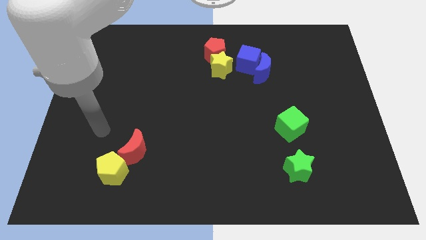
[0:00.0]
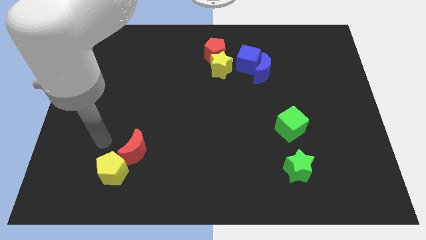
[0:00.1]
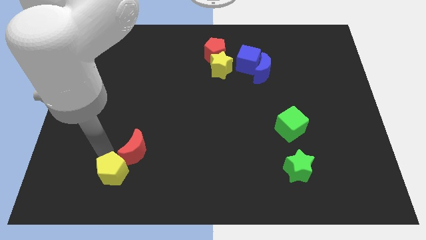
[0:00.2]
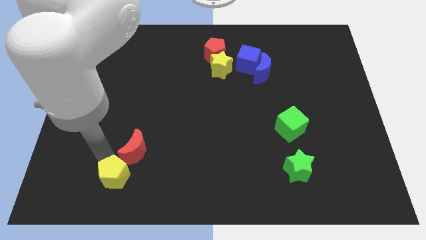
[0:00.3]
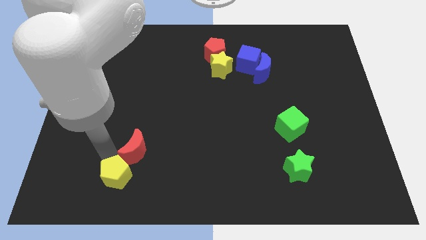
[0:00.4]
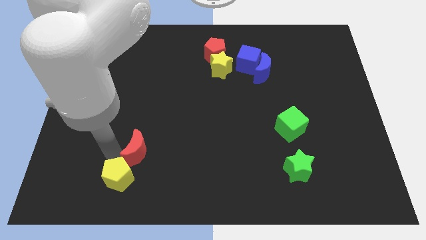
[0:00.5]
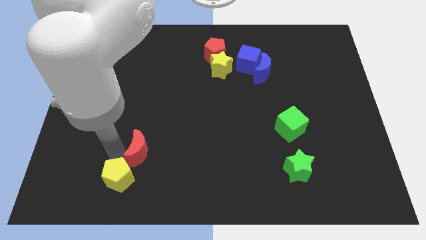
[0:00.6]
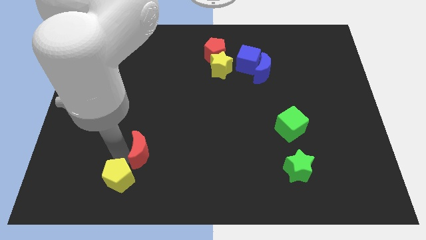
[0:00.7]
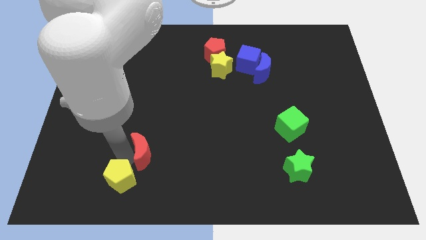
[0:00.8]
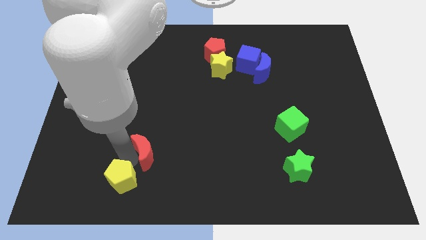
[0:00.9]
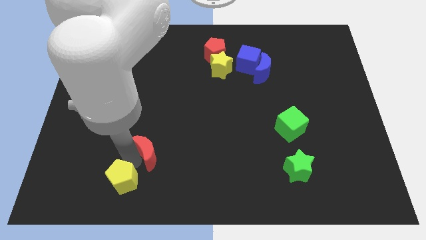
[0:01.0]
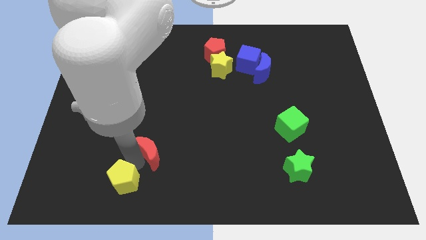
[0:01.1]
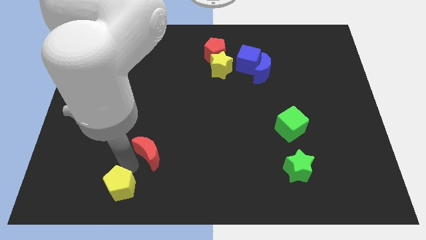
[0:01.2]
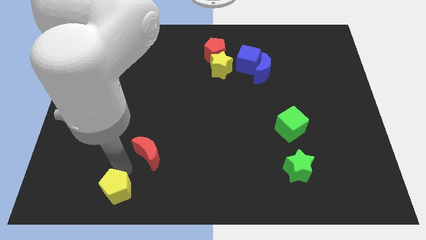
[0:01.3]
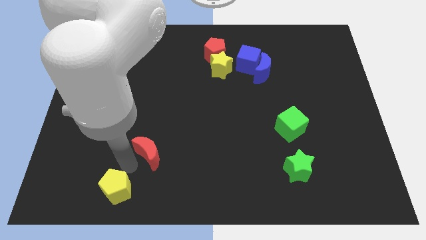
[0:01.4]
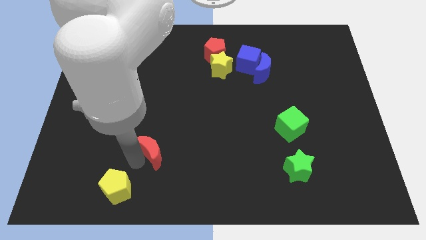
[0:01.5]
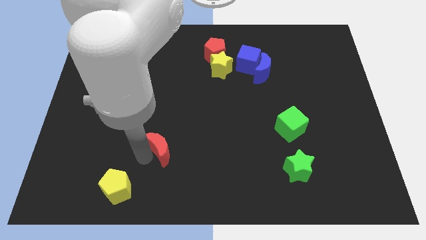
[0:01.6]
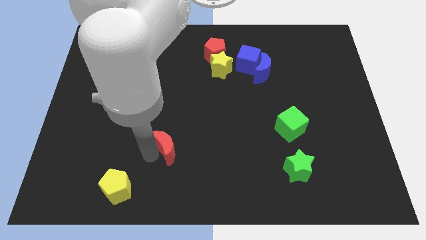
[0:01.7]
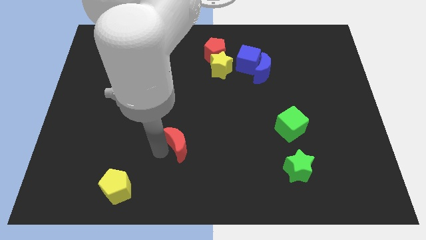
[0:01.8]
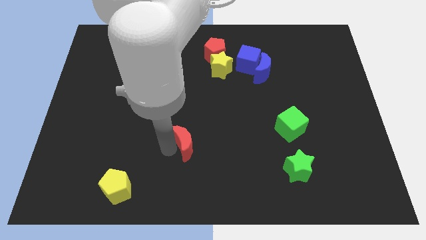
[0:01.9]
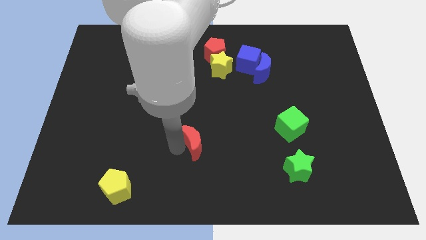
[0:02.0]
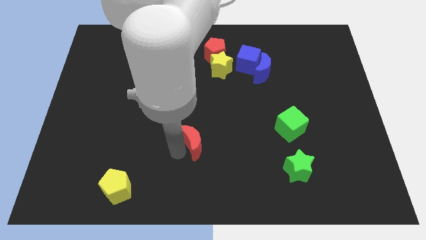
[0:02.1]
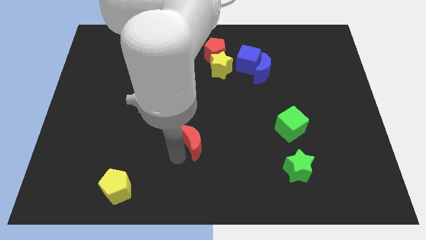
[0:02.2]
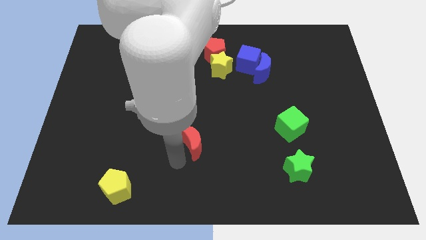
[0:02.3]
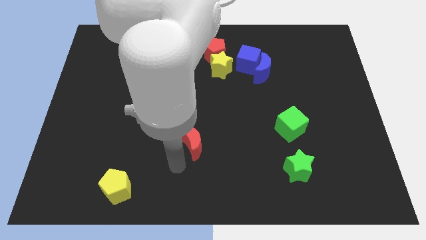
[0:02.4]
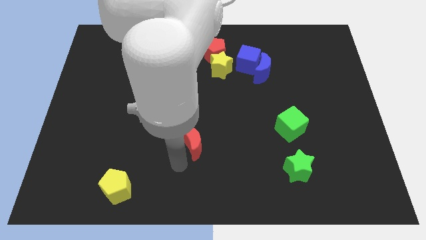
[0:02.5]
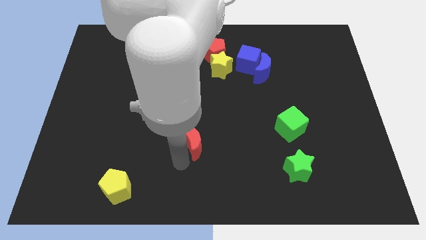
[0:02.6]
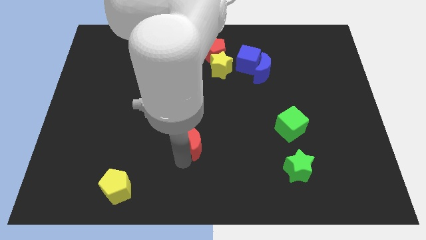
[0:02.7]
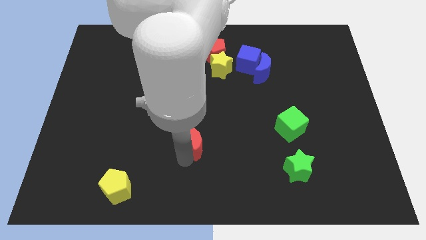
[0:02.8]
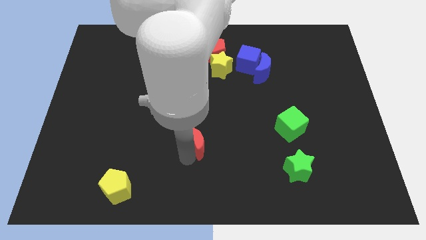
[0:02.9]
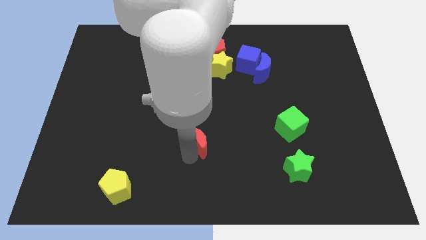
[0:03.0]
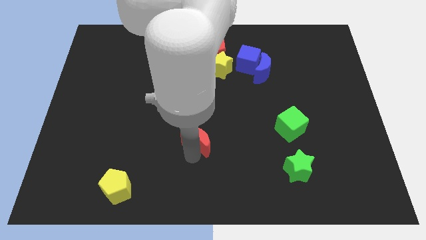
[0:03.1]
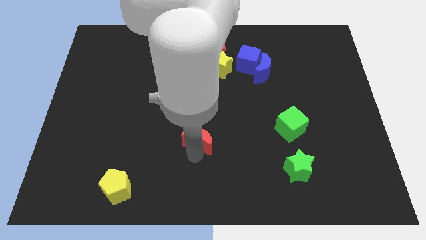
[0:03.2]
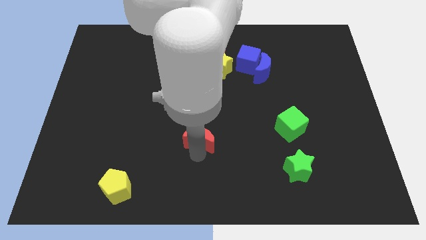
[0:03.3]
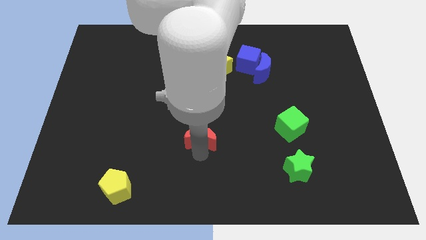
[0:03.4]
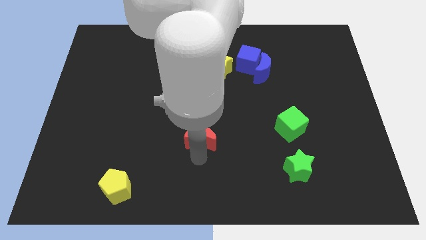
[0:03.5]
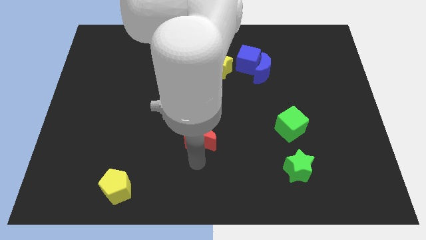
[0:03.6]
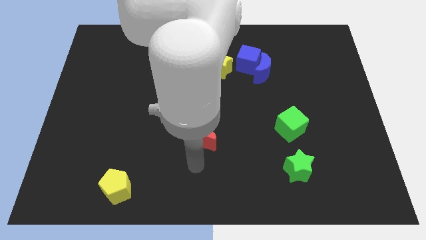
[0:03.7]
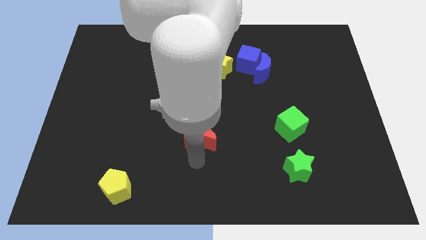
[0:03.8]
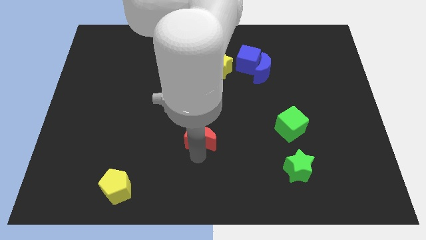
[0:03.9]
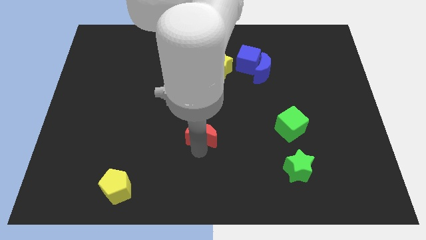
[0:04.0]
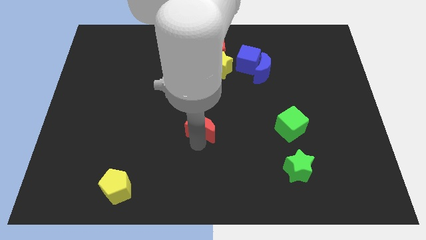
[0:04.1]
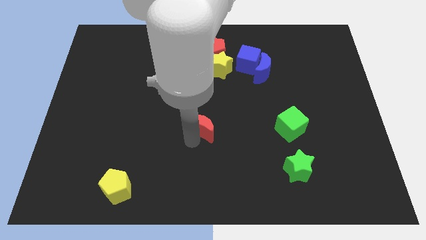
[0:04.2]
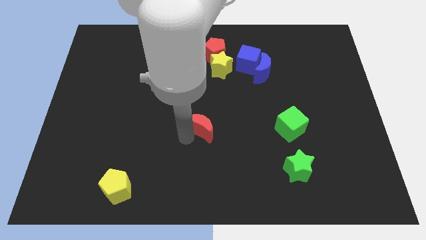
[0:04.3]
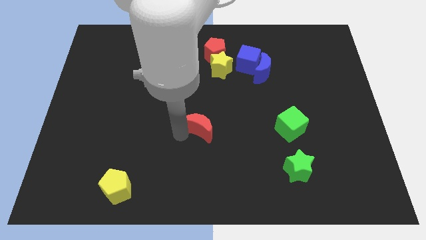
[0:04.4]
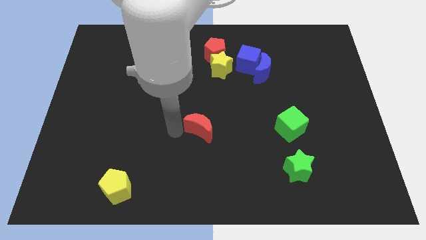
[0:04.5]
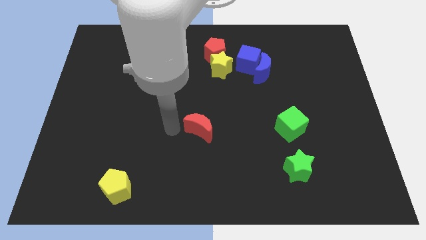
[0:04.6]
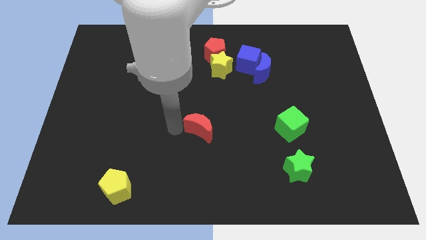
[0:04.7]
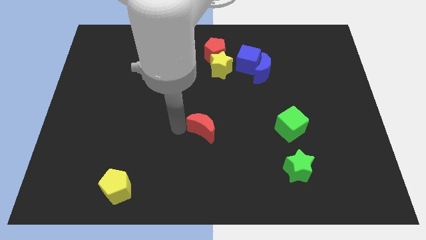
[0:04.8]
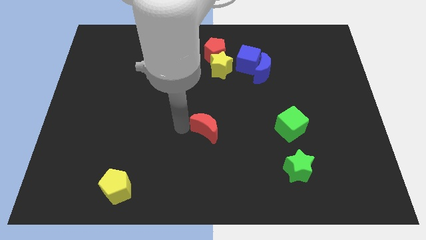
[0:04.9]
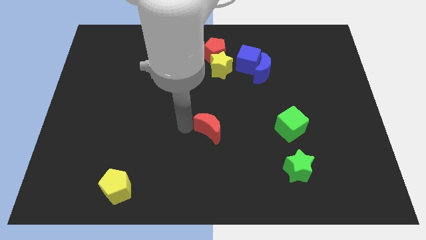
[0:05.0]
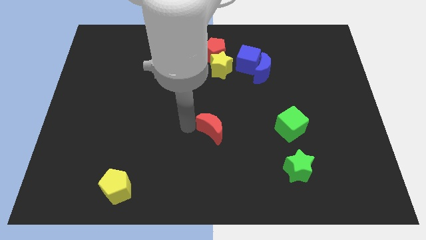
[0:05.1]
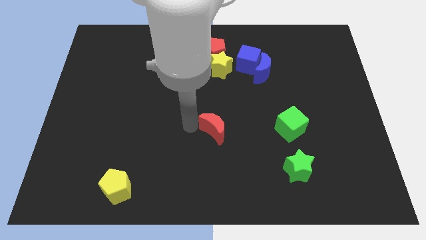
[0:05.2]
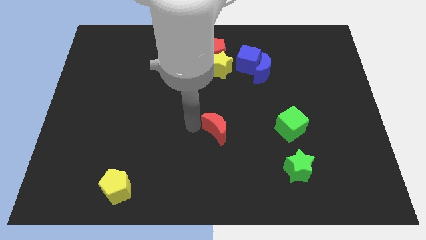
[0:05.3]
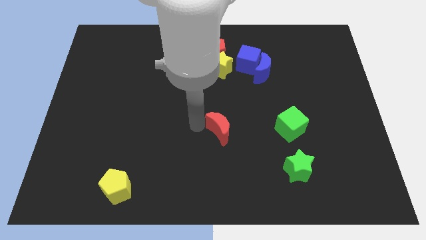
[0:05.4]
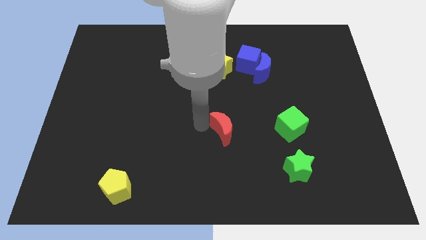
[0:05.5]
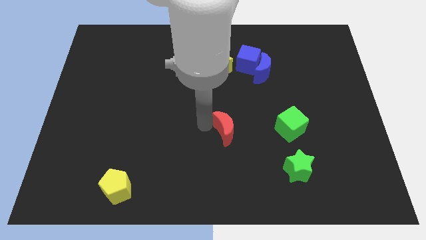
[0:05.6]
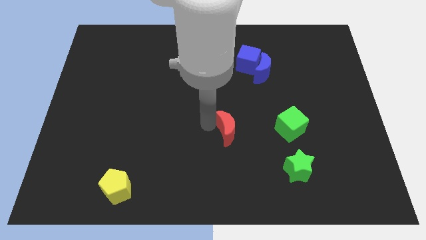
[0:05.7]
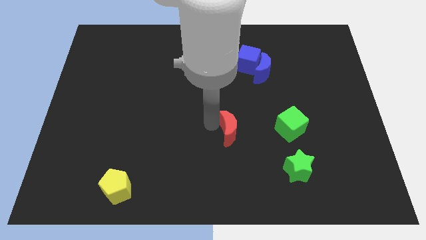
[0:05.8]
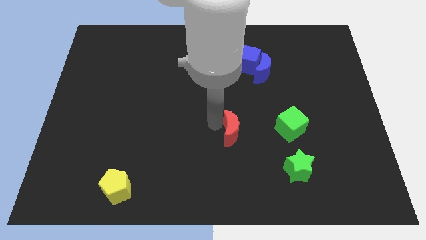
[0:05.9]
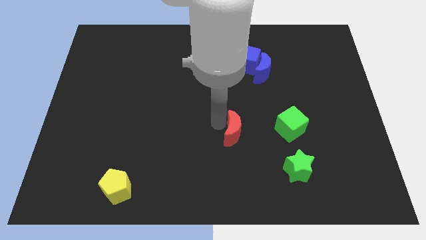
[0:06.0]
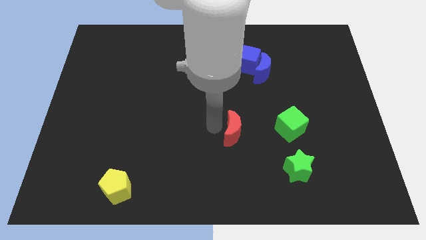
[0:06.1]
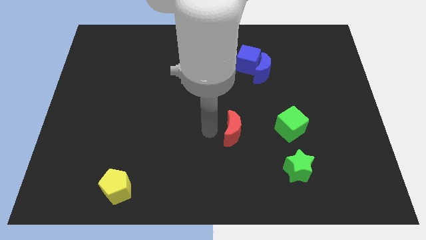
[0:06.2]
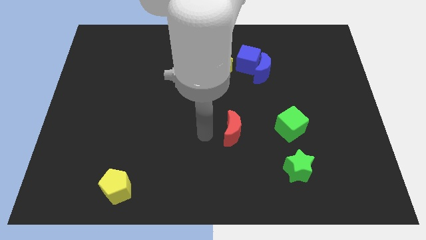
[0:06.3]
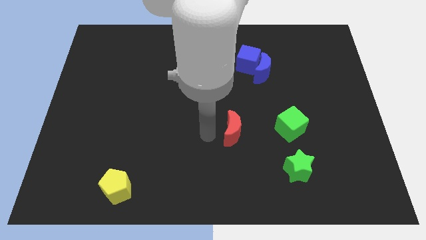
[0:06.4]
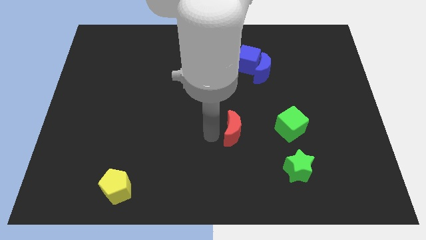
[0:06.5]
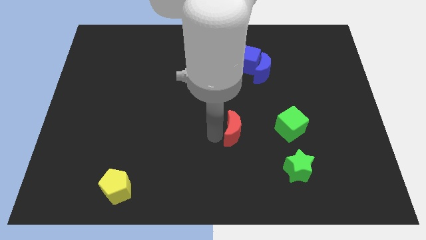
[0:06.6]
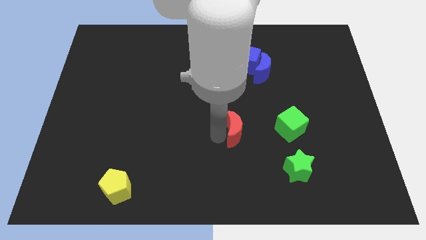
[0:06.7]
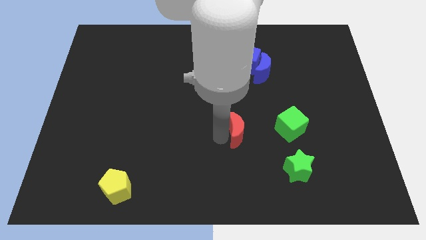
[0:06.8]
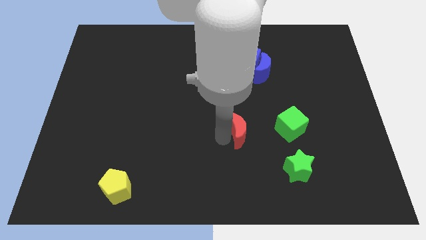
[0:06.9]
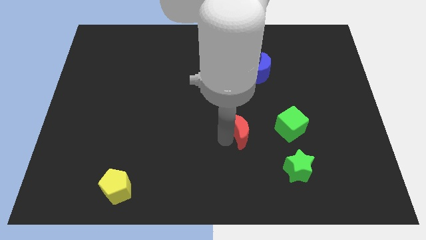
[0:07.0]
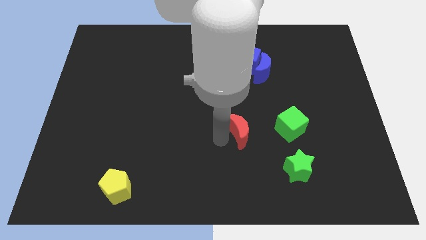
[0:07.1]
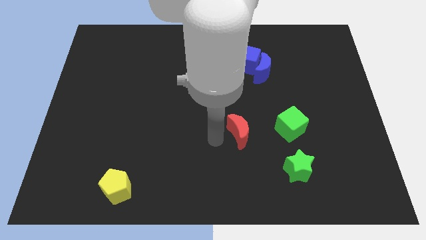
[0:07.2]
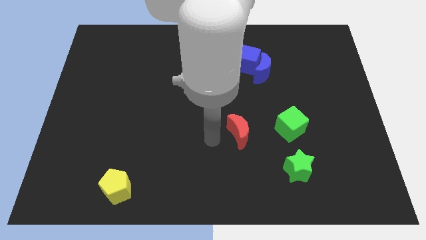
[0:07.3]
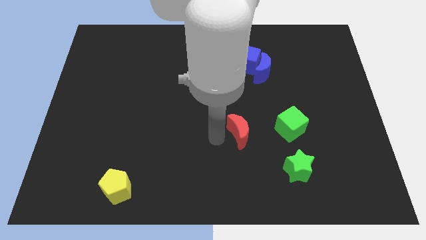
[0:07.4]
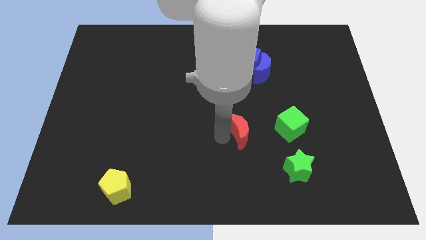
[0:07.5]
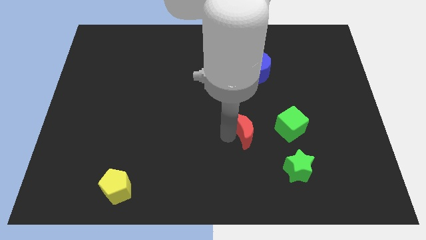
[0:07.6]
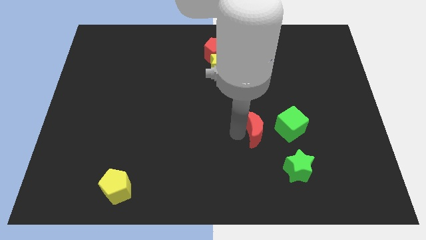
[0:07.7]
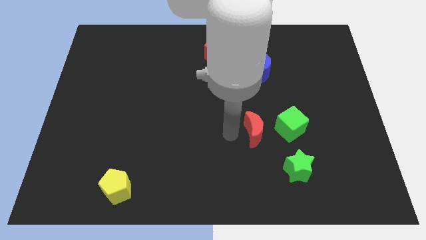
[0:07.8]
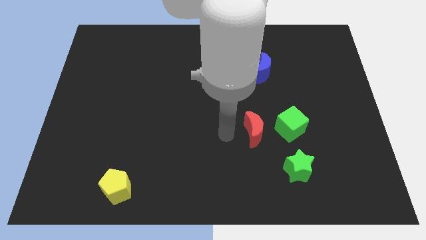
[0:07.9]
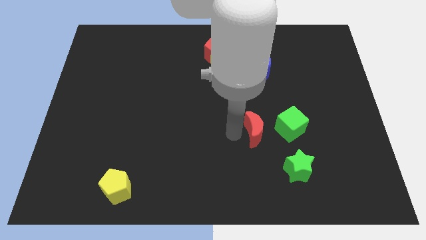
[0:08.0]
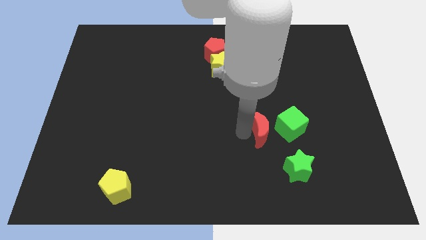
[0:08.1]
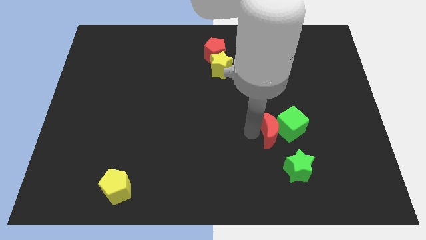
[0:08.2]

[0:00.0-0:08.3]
slide the red moon to the green cube
